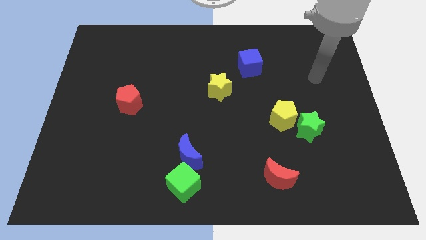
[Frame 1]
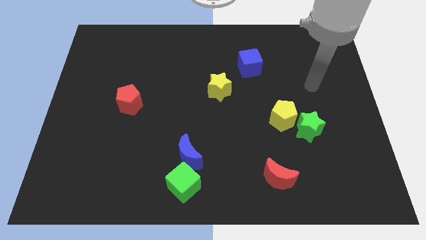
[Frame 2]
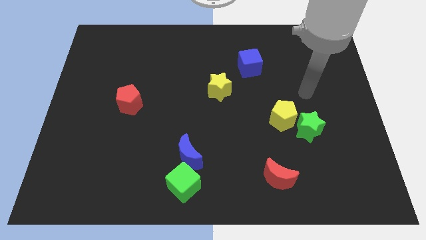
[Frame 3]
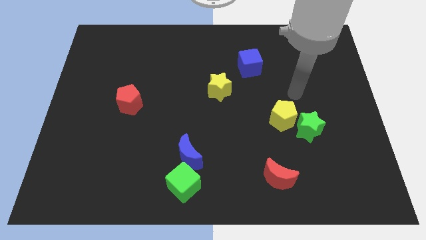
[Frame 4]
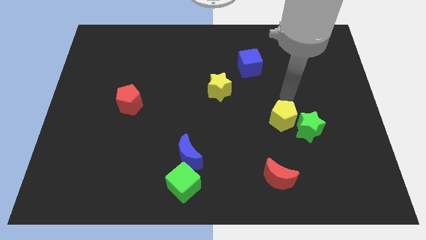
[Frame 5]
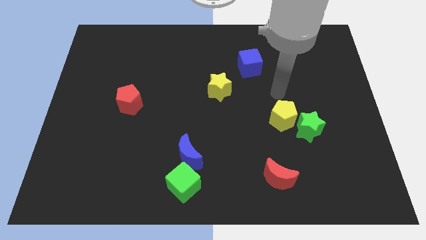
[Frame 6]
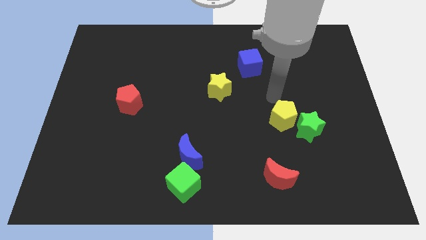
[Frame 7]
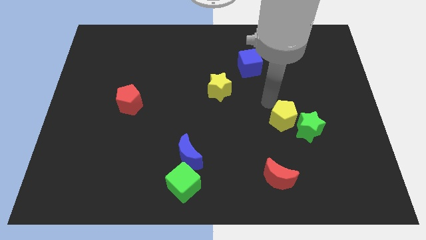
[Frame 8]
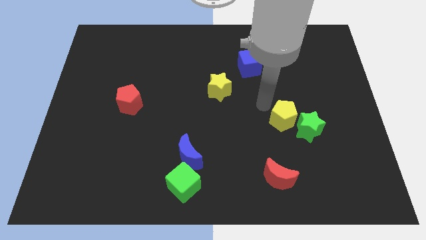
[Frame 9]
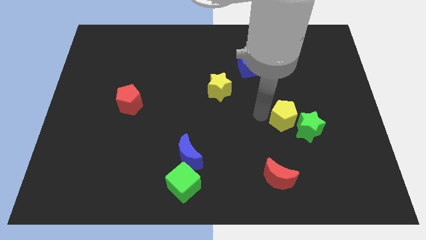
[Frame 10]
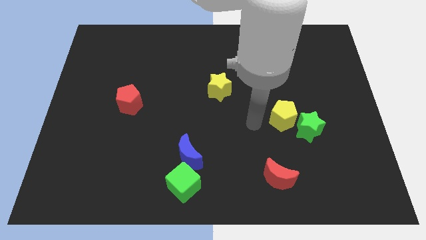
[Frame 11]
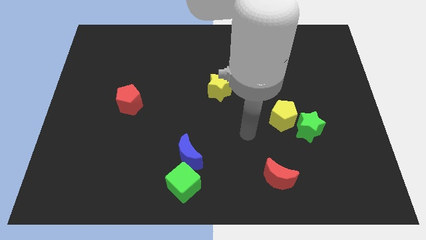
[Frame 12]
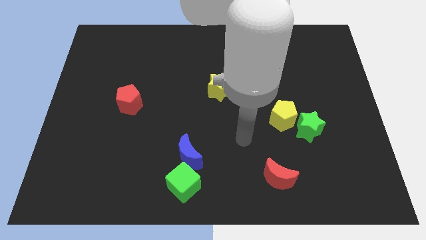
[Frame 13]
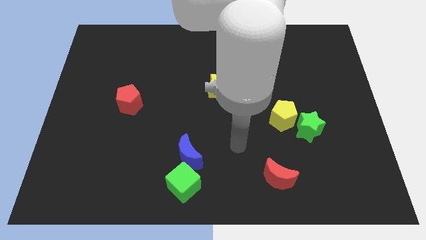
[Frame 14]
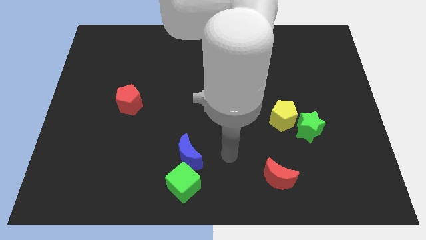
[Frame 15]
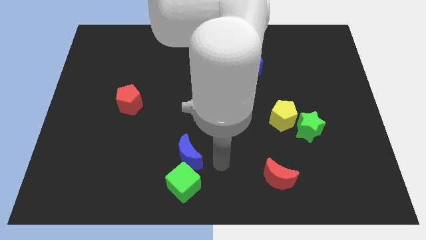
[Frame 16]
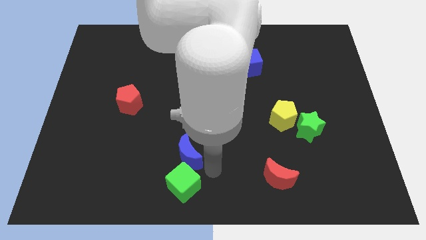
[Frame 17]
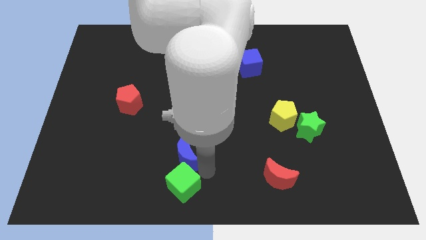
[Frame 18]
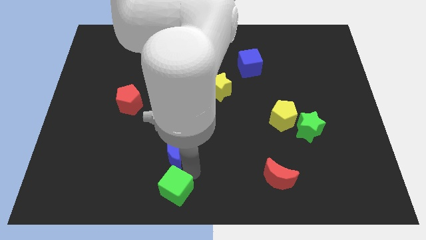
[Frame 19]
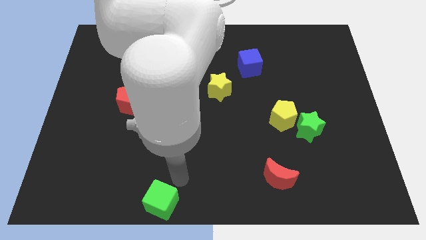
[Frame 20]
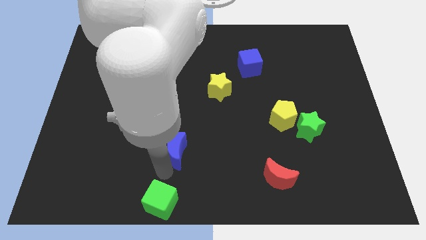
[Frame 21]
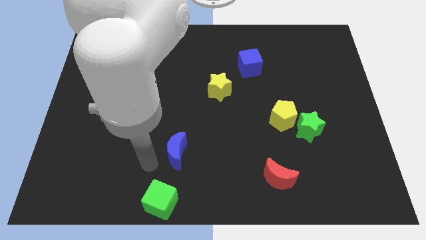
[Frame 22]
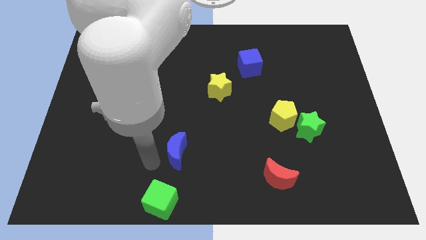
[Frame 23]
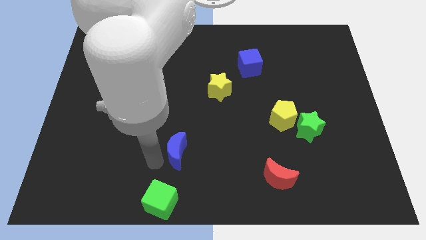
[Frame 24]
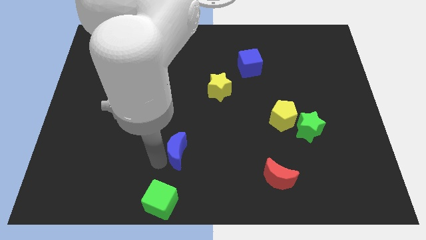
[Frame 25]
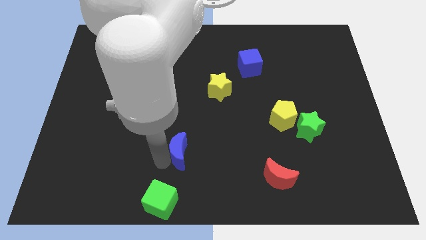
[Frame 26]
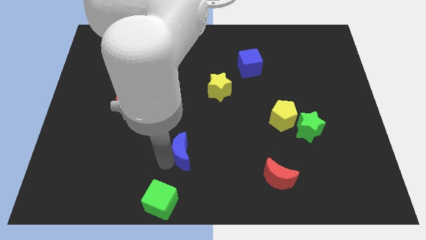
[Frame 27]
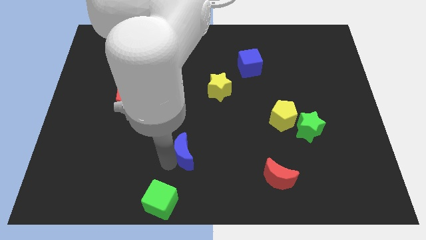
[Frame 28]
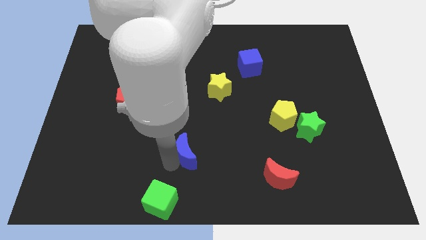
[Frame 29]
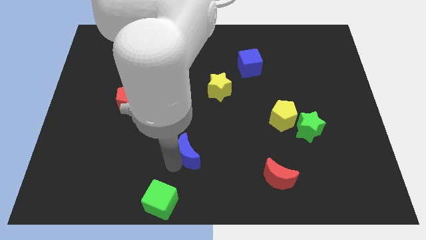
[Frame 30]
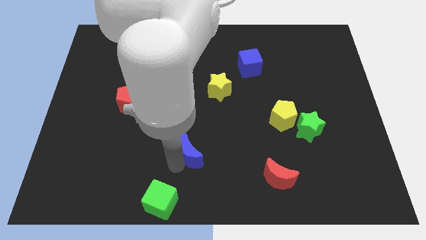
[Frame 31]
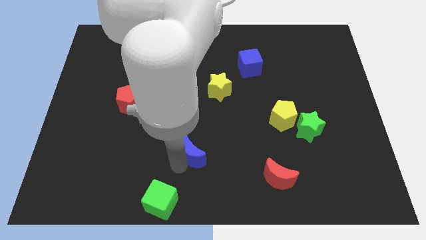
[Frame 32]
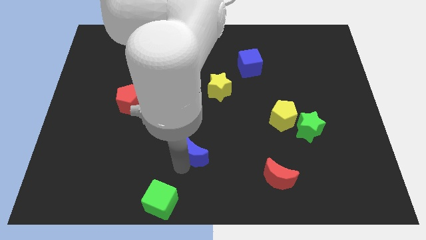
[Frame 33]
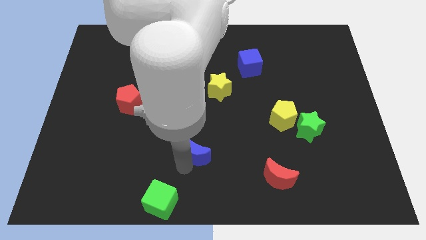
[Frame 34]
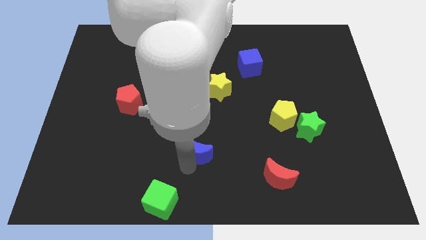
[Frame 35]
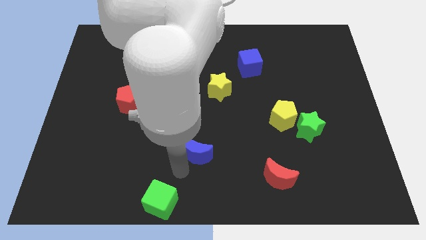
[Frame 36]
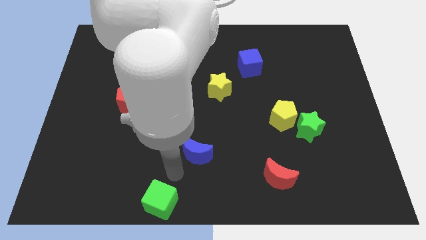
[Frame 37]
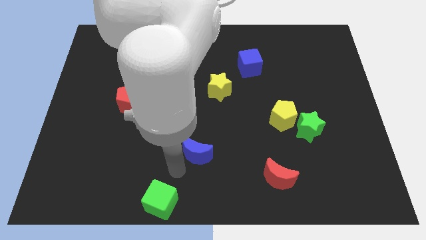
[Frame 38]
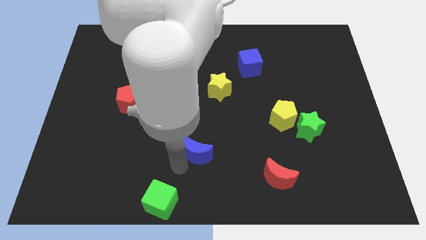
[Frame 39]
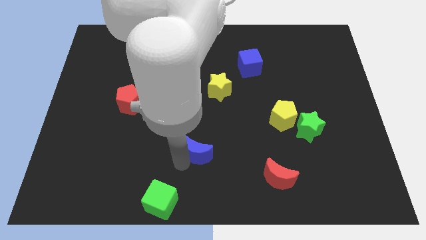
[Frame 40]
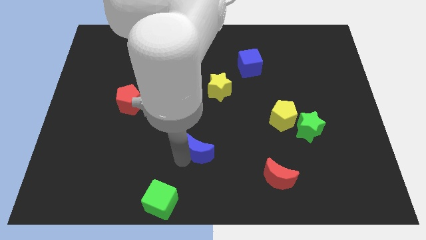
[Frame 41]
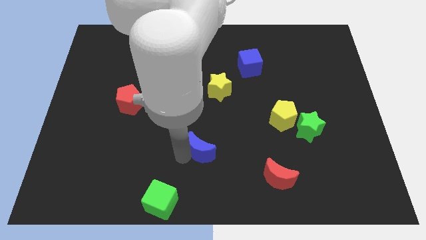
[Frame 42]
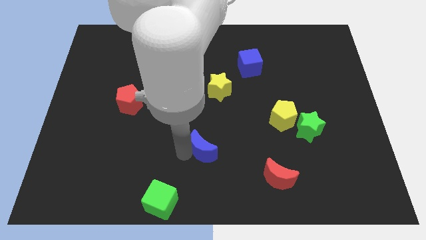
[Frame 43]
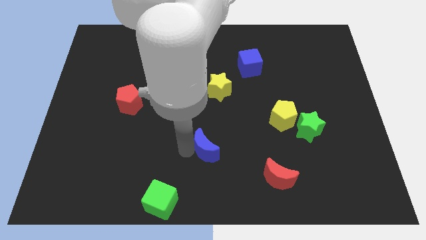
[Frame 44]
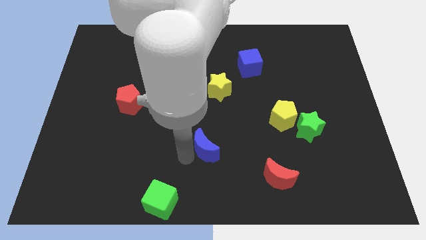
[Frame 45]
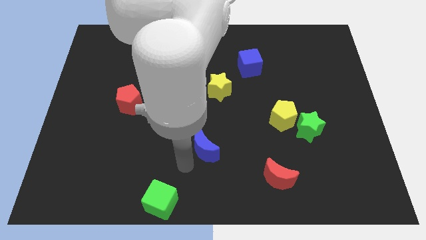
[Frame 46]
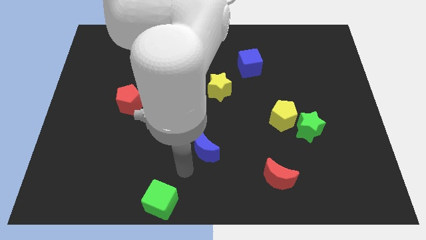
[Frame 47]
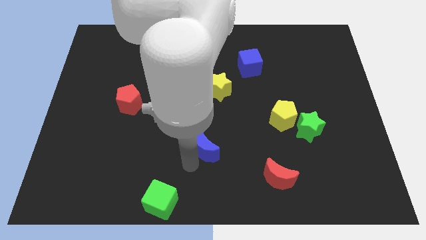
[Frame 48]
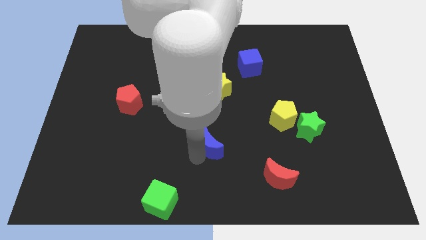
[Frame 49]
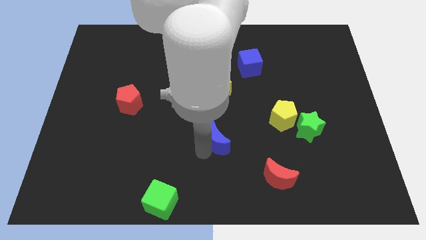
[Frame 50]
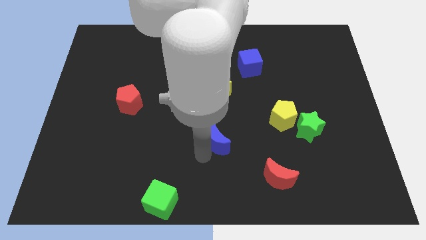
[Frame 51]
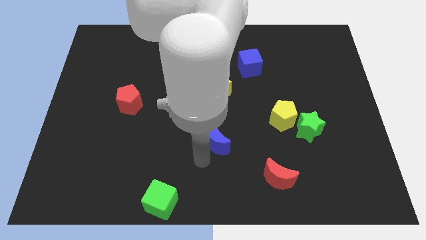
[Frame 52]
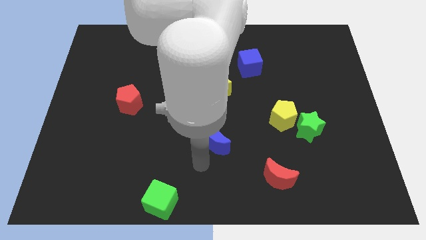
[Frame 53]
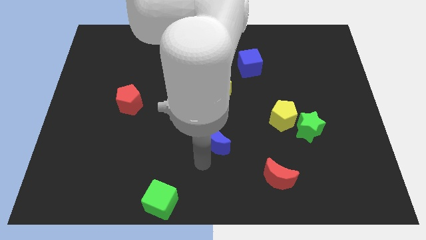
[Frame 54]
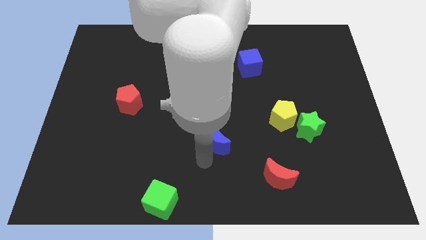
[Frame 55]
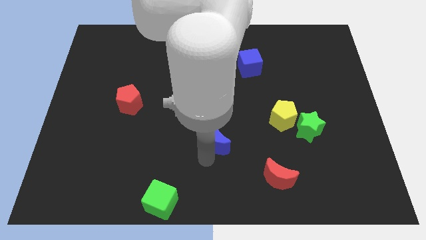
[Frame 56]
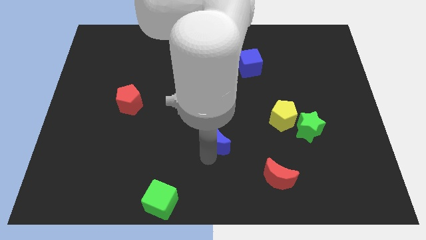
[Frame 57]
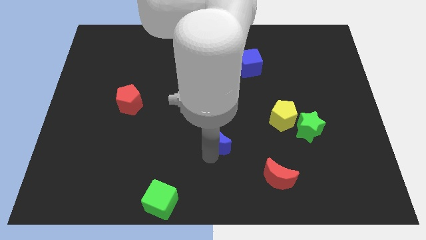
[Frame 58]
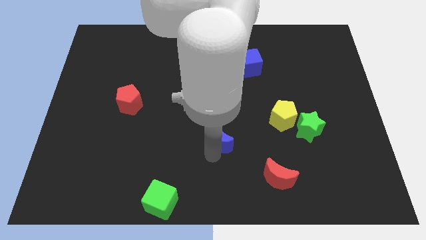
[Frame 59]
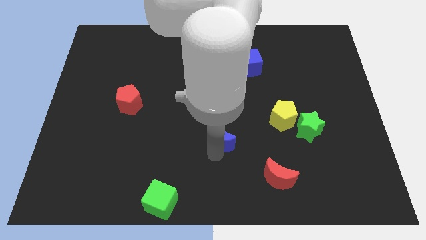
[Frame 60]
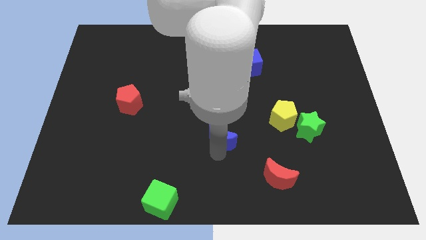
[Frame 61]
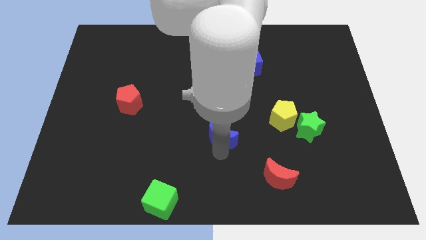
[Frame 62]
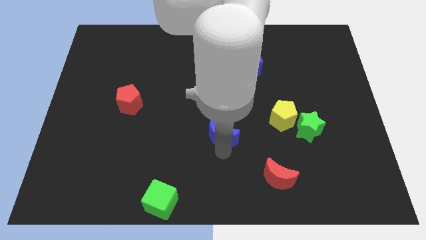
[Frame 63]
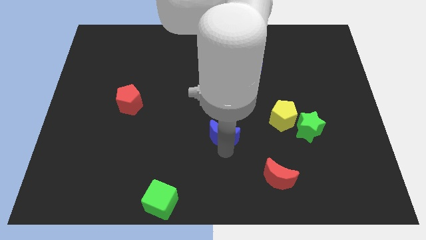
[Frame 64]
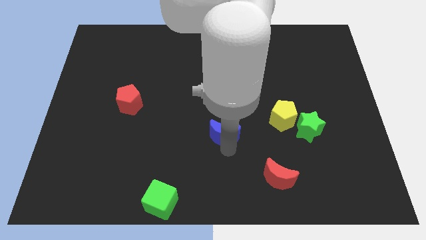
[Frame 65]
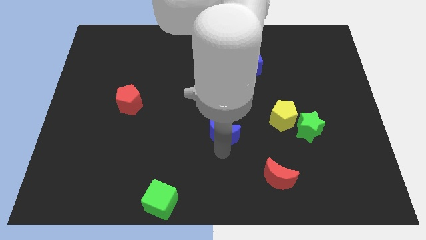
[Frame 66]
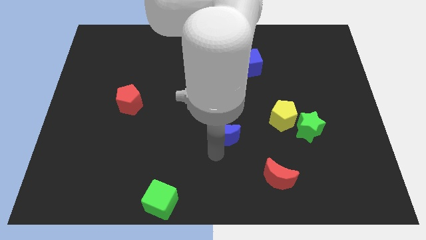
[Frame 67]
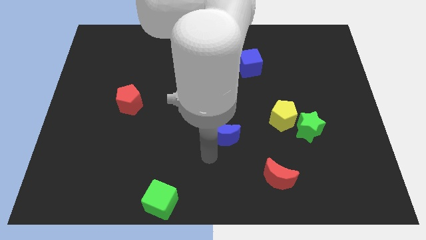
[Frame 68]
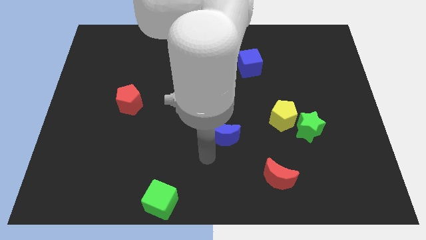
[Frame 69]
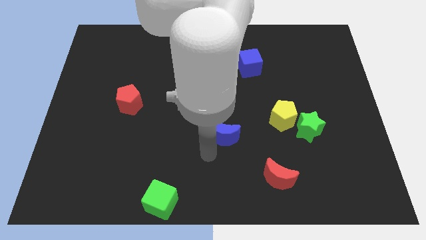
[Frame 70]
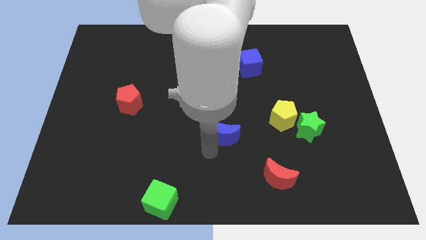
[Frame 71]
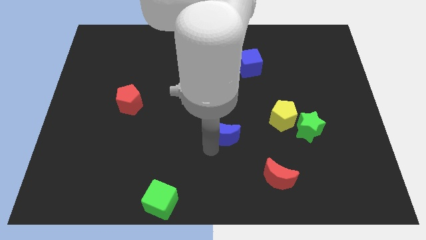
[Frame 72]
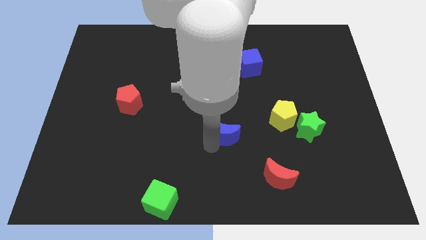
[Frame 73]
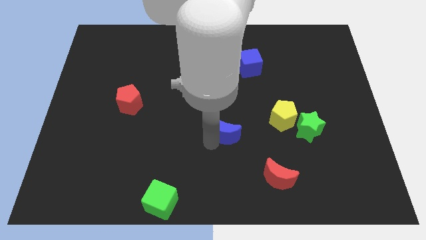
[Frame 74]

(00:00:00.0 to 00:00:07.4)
push the blue moon just left of the yellow pentagon

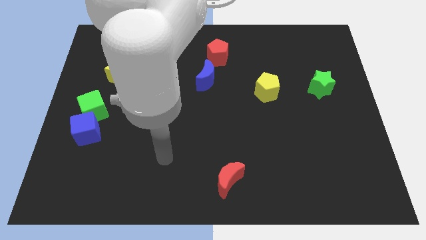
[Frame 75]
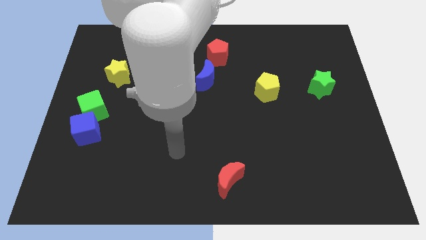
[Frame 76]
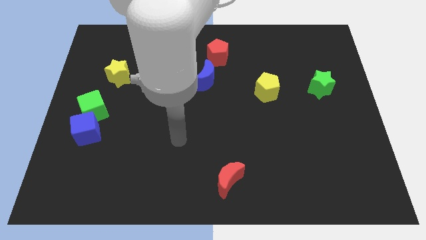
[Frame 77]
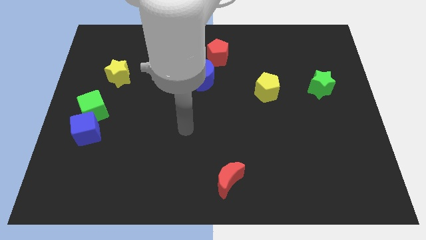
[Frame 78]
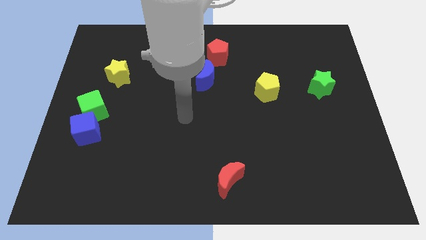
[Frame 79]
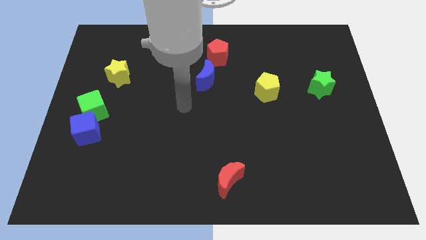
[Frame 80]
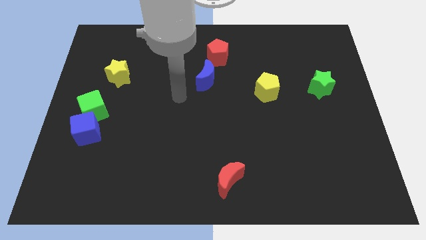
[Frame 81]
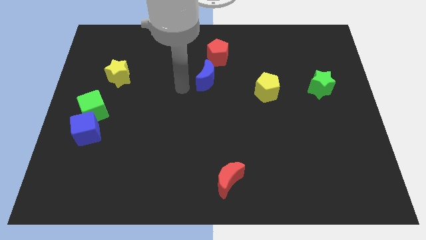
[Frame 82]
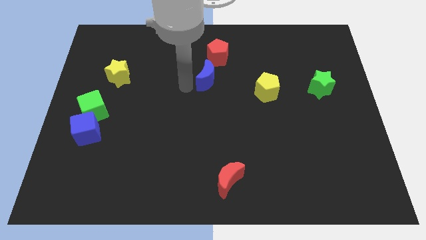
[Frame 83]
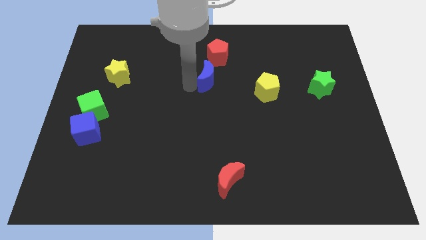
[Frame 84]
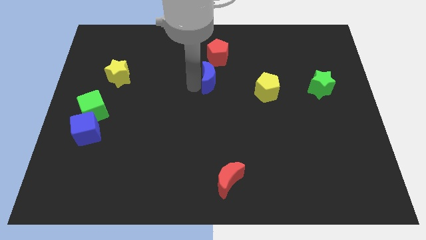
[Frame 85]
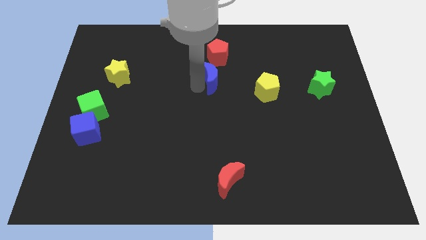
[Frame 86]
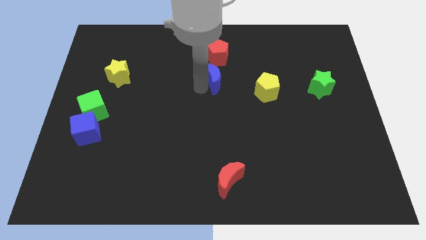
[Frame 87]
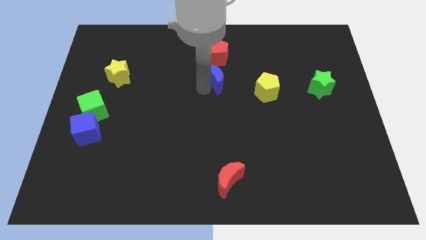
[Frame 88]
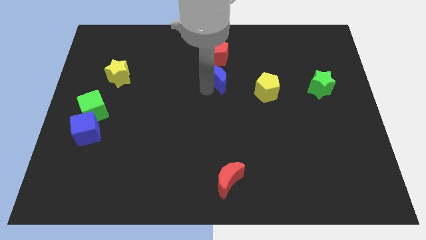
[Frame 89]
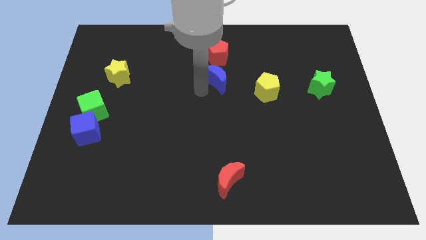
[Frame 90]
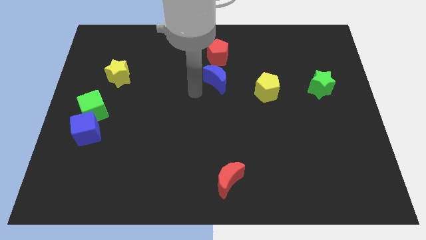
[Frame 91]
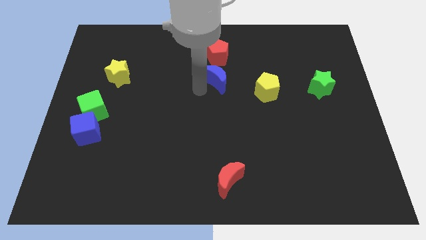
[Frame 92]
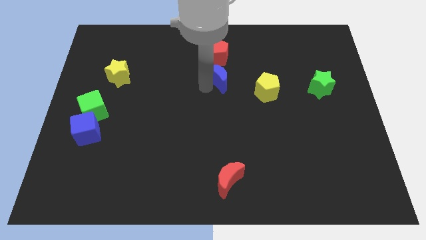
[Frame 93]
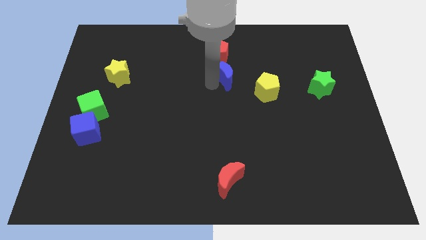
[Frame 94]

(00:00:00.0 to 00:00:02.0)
slide the blue moon diagonally down and to the right of the red pentagon
